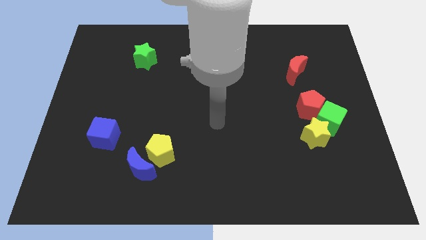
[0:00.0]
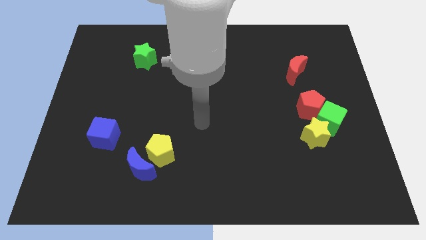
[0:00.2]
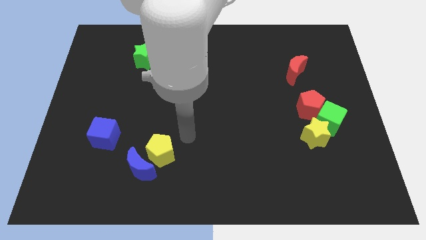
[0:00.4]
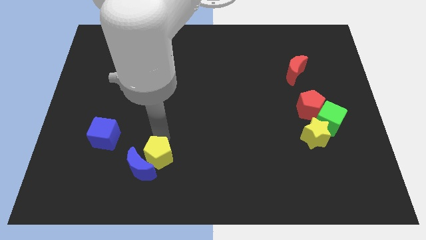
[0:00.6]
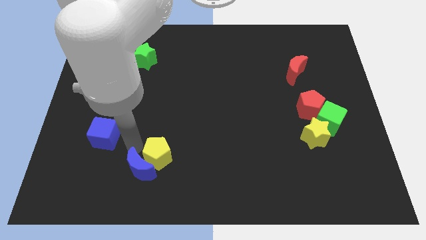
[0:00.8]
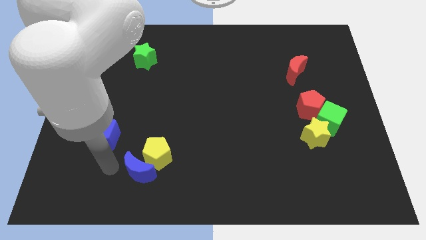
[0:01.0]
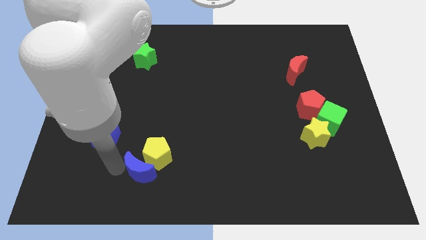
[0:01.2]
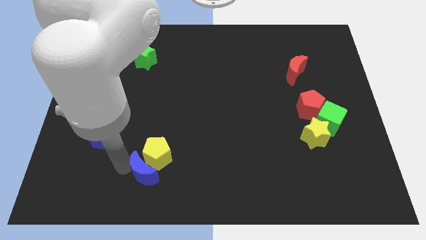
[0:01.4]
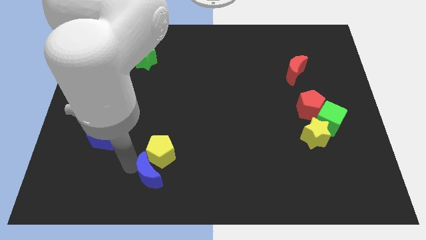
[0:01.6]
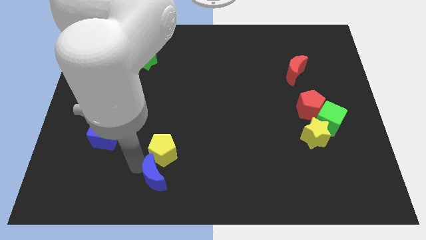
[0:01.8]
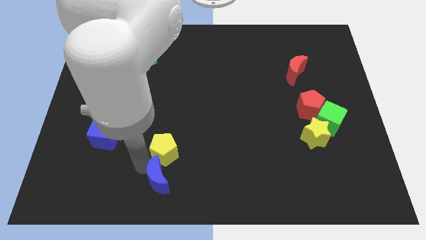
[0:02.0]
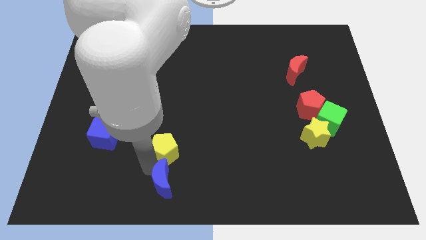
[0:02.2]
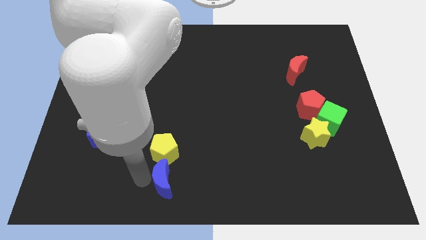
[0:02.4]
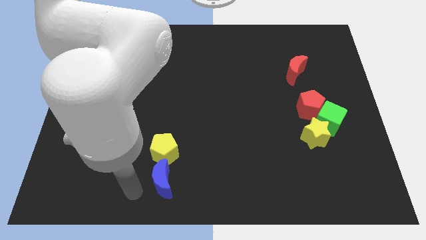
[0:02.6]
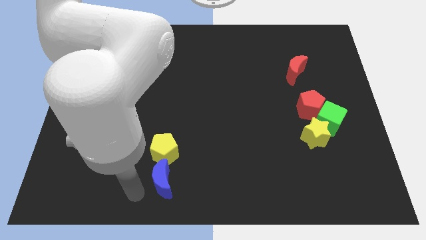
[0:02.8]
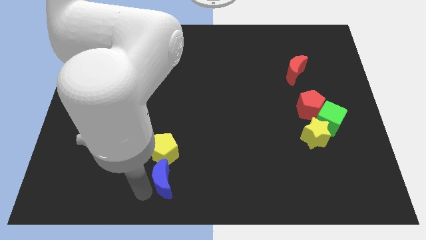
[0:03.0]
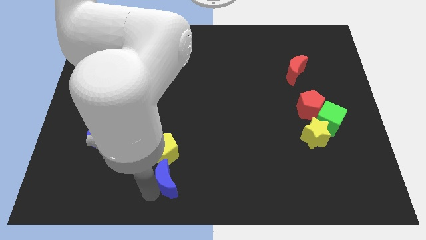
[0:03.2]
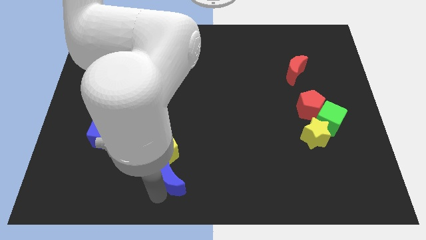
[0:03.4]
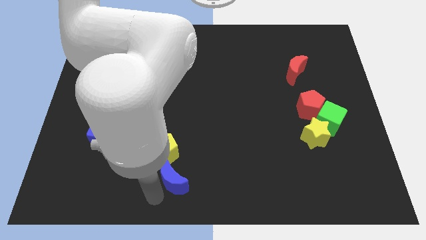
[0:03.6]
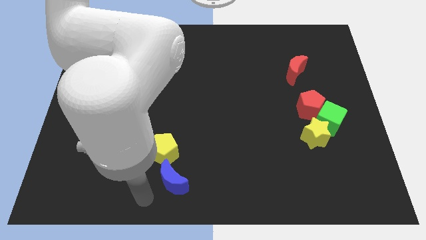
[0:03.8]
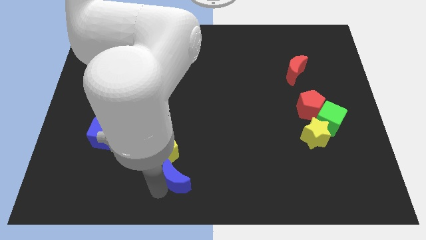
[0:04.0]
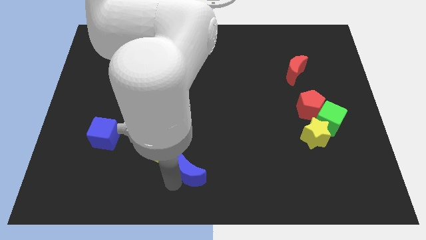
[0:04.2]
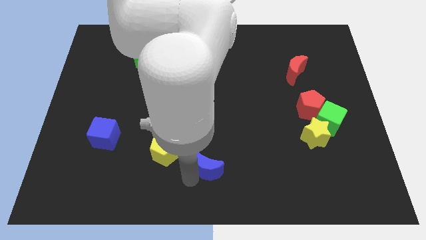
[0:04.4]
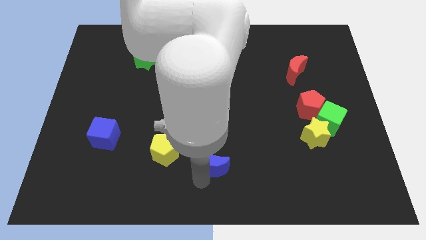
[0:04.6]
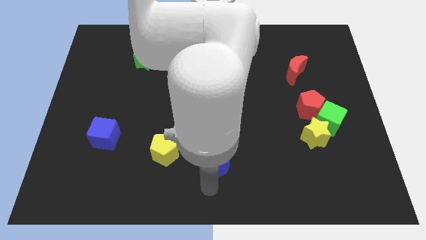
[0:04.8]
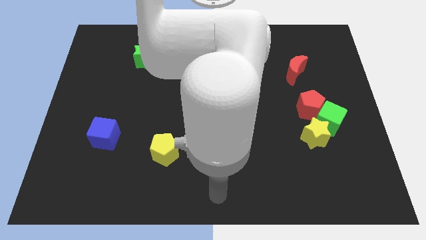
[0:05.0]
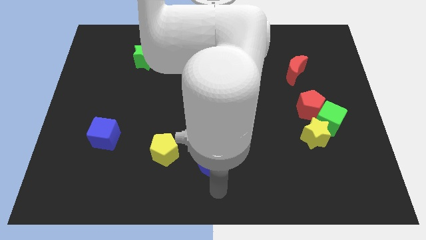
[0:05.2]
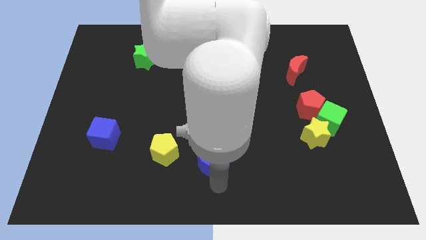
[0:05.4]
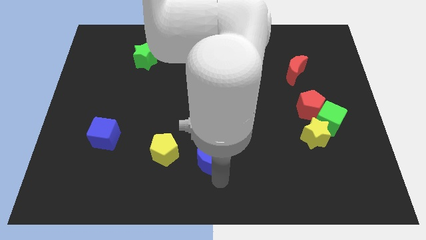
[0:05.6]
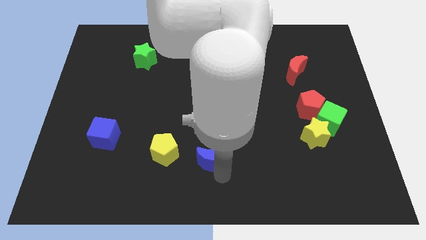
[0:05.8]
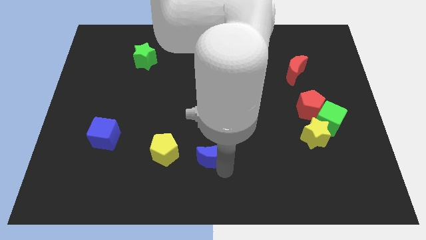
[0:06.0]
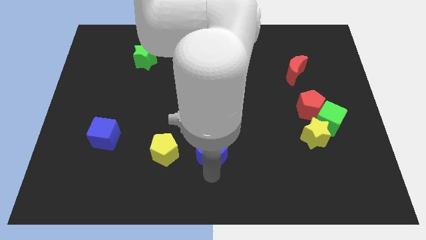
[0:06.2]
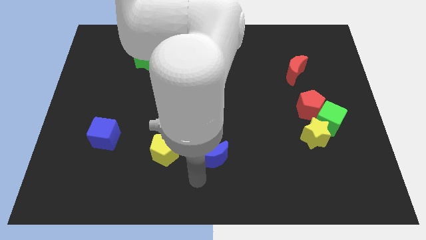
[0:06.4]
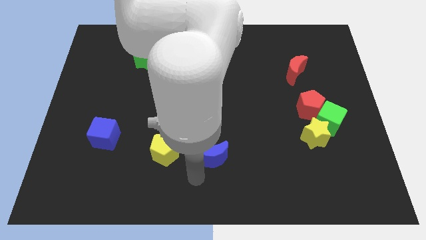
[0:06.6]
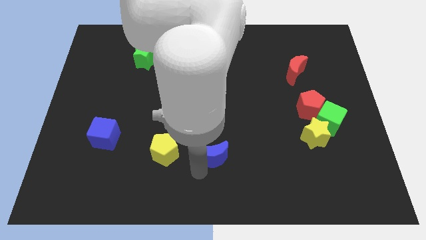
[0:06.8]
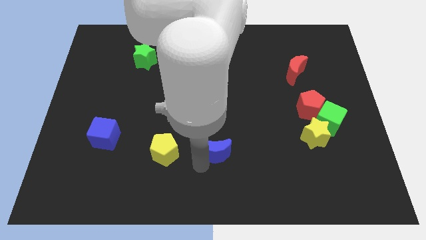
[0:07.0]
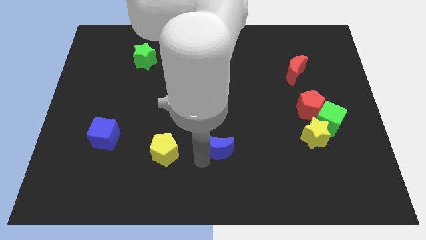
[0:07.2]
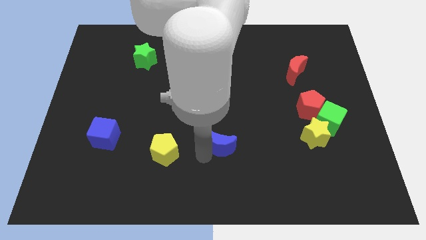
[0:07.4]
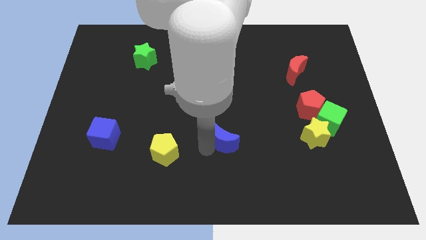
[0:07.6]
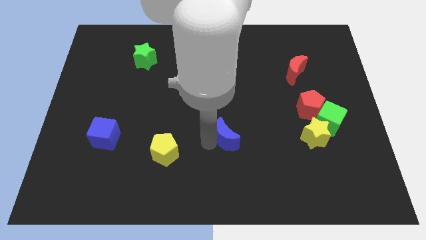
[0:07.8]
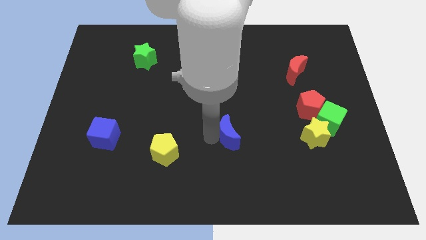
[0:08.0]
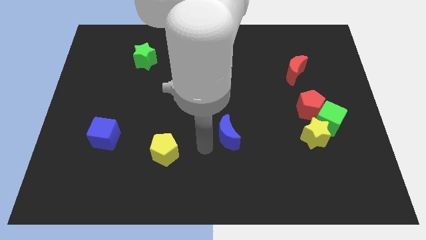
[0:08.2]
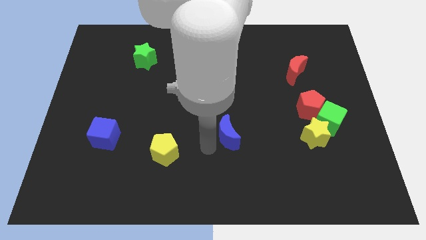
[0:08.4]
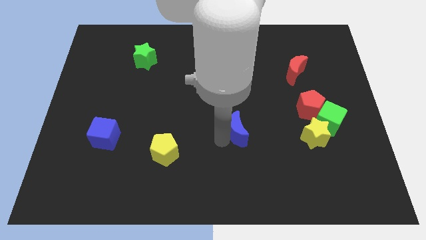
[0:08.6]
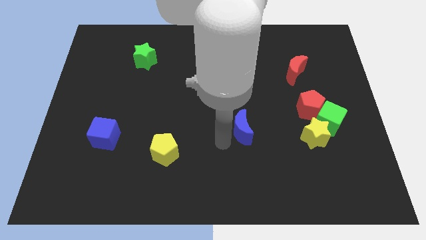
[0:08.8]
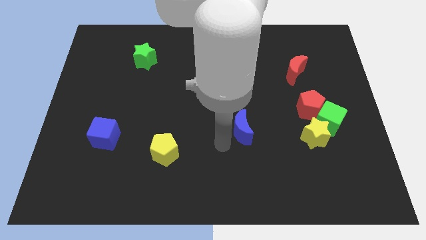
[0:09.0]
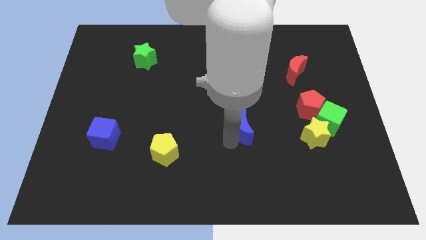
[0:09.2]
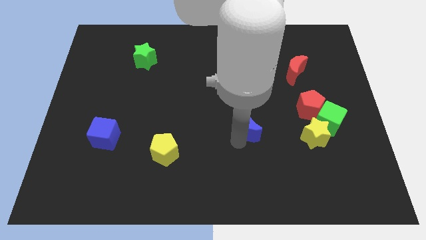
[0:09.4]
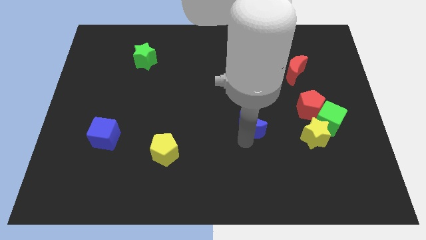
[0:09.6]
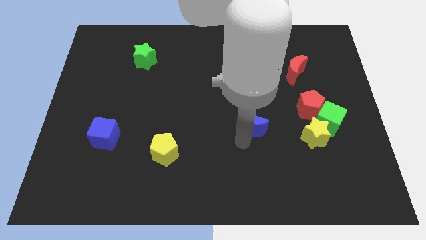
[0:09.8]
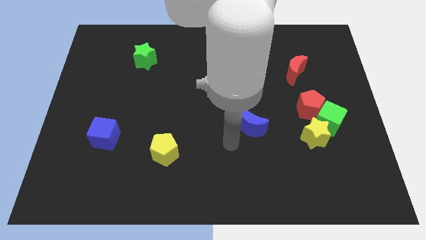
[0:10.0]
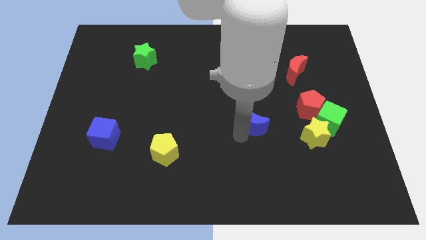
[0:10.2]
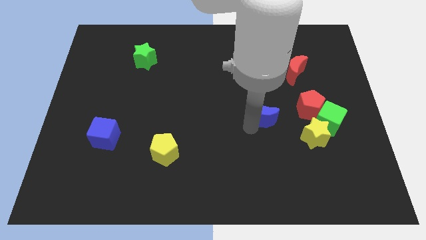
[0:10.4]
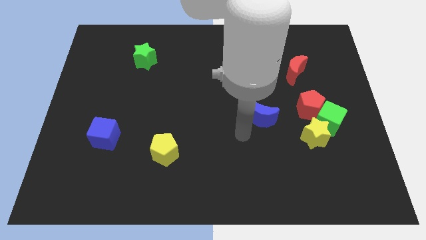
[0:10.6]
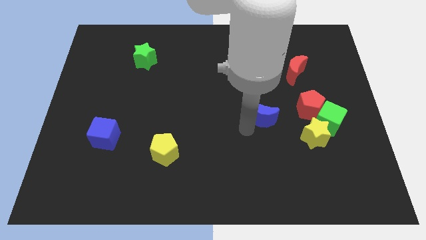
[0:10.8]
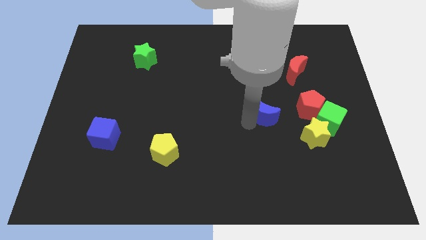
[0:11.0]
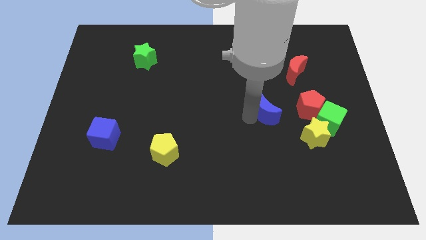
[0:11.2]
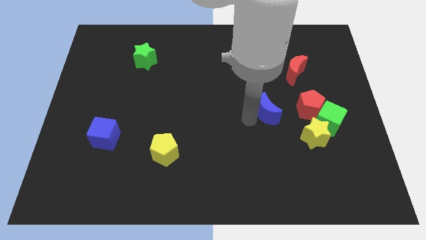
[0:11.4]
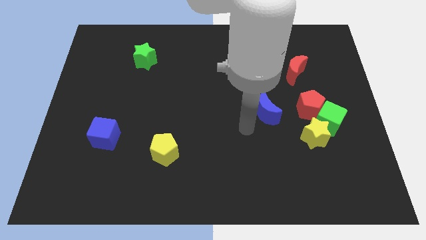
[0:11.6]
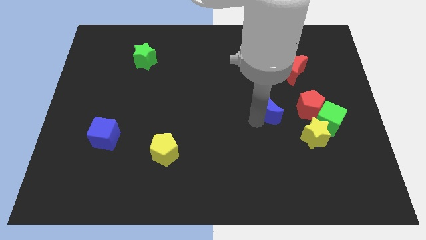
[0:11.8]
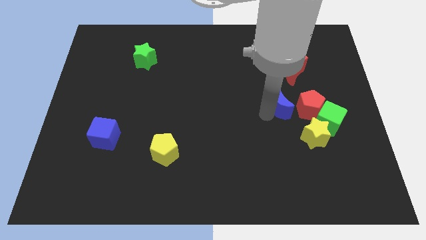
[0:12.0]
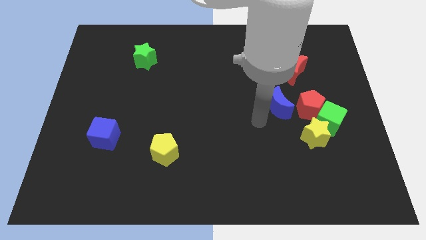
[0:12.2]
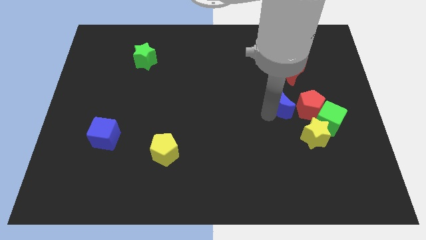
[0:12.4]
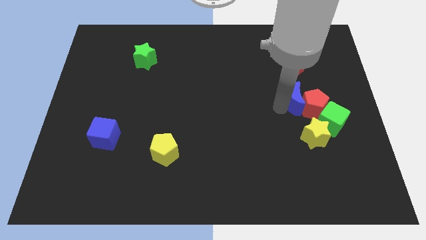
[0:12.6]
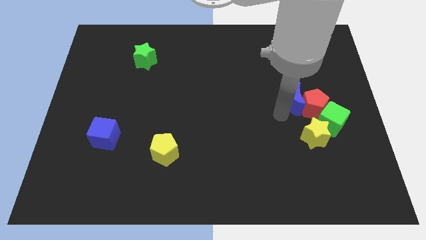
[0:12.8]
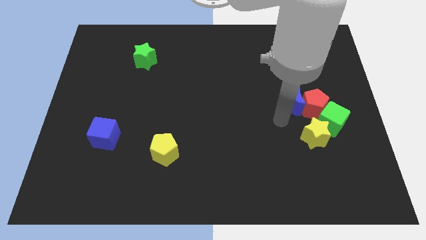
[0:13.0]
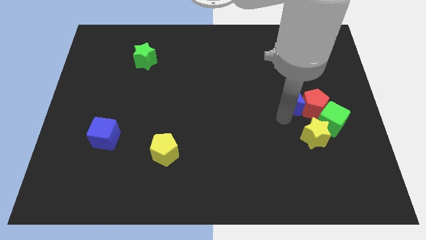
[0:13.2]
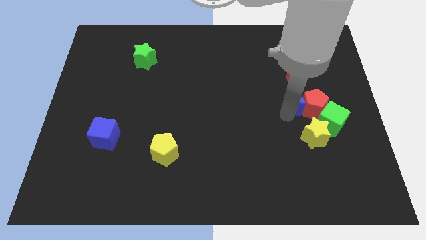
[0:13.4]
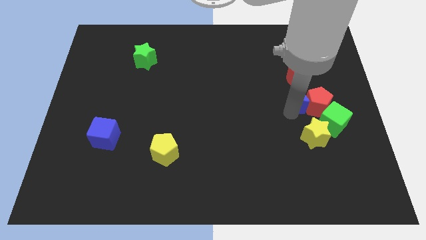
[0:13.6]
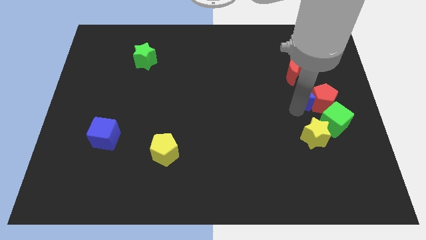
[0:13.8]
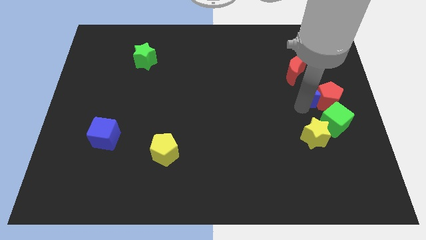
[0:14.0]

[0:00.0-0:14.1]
push the blue moon above the green cube
